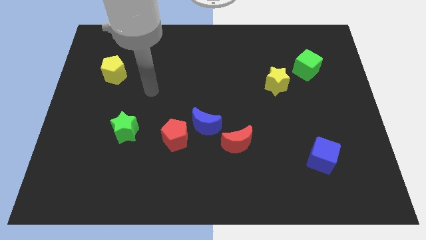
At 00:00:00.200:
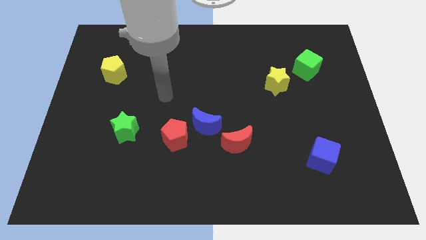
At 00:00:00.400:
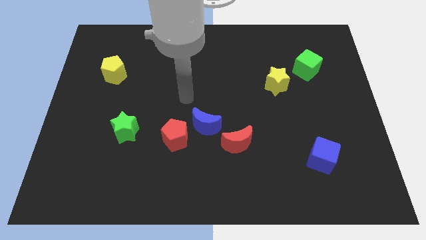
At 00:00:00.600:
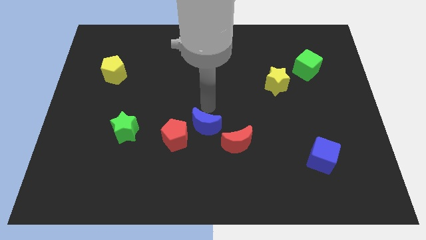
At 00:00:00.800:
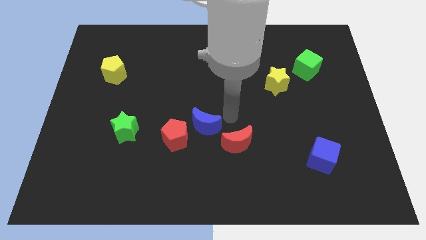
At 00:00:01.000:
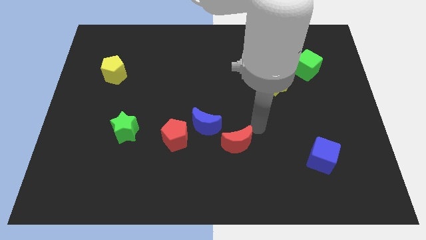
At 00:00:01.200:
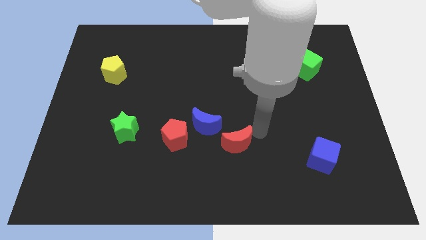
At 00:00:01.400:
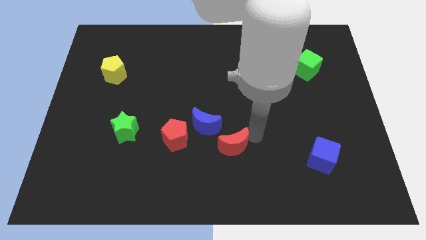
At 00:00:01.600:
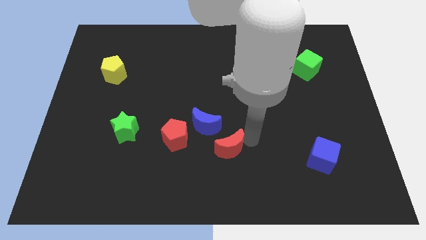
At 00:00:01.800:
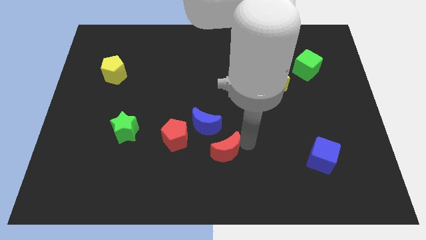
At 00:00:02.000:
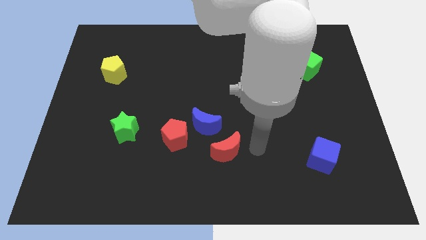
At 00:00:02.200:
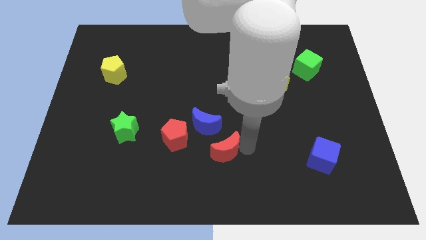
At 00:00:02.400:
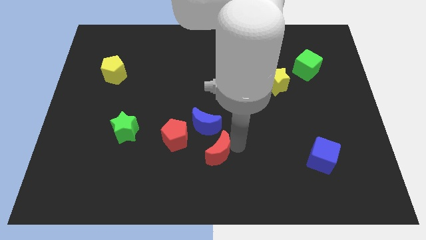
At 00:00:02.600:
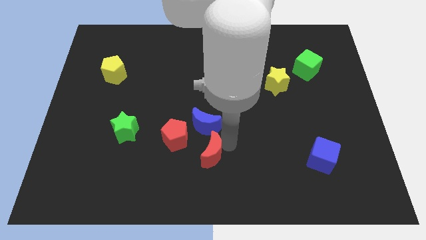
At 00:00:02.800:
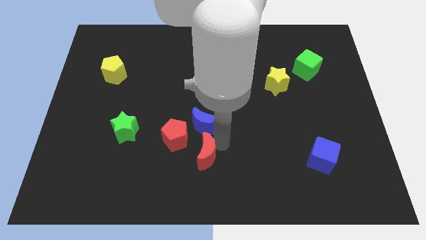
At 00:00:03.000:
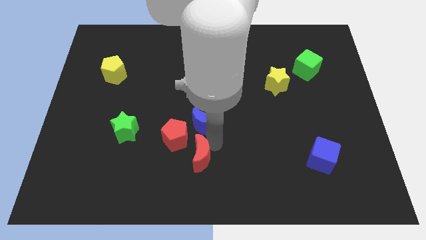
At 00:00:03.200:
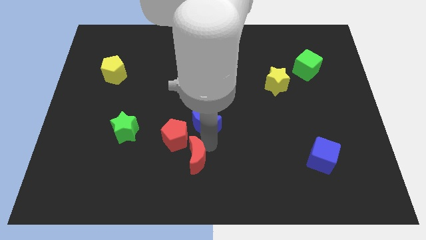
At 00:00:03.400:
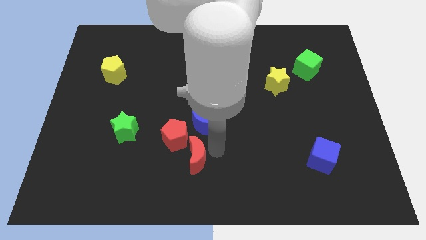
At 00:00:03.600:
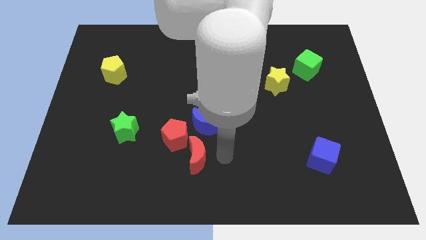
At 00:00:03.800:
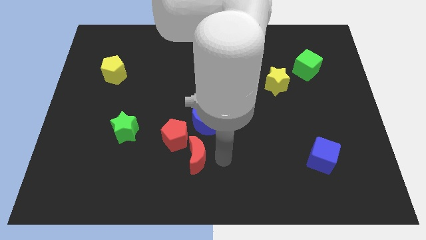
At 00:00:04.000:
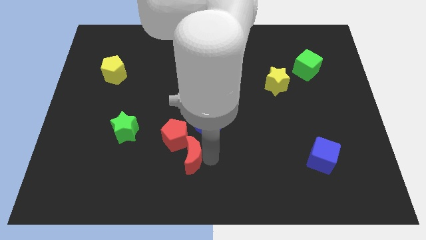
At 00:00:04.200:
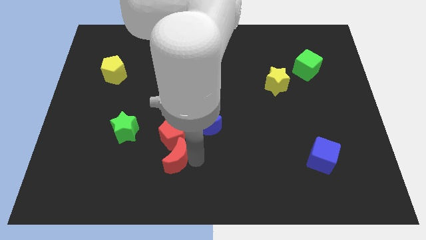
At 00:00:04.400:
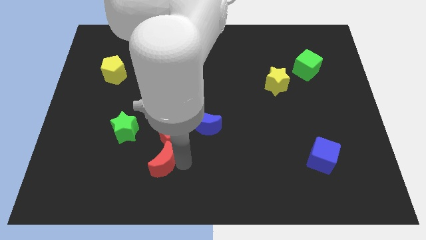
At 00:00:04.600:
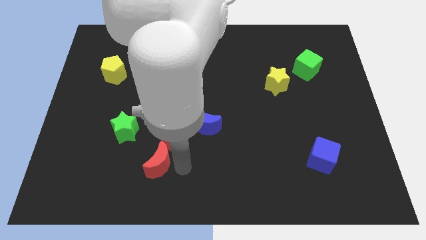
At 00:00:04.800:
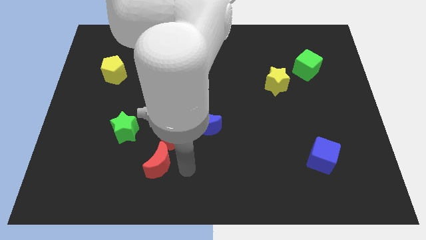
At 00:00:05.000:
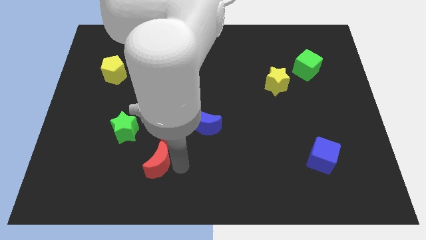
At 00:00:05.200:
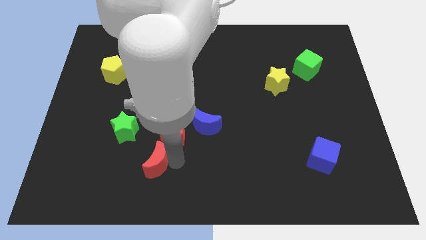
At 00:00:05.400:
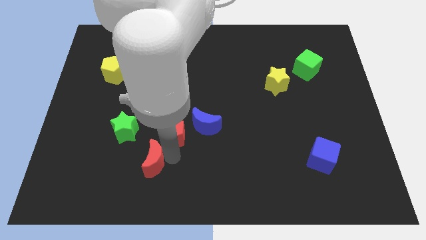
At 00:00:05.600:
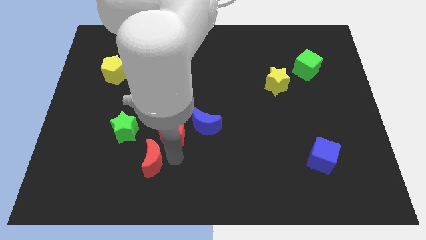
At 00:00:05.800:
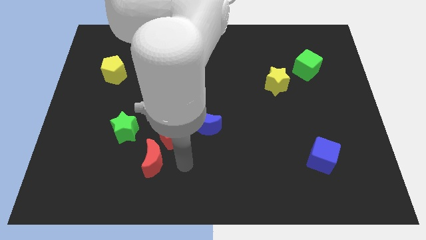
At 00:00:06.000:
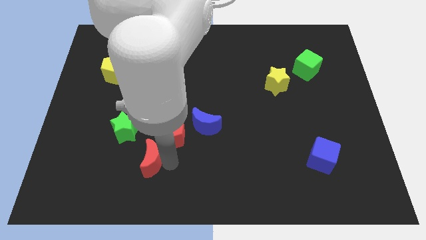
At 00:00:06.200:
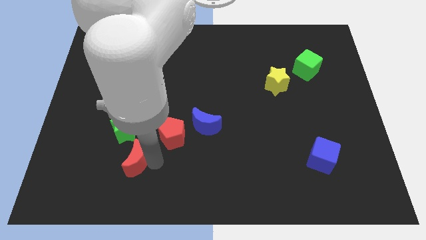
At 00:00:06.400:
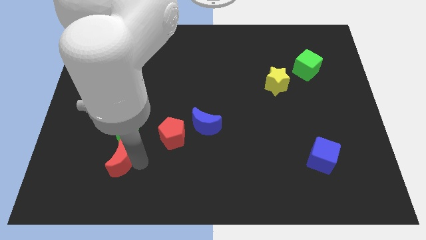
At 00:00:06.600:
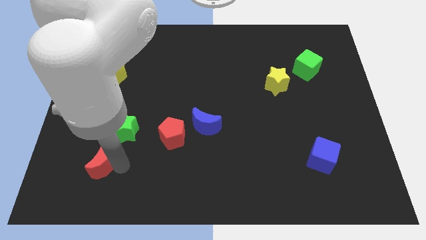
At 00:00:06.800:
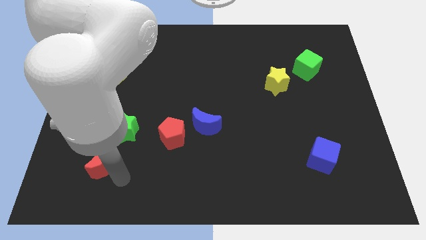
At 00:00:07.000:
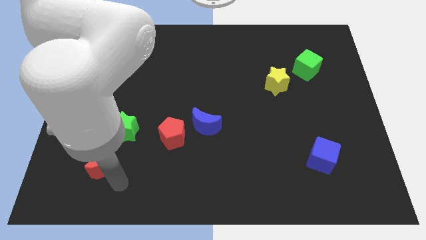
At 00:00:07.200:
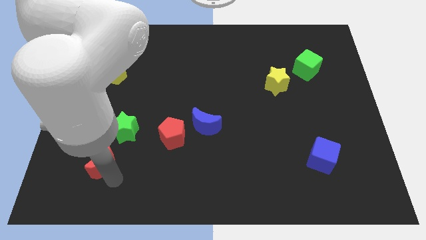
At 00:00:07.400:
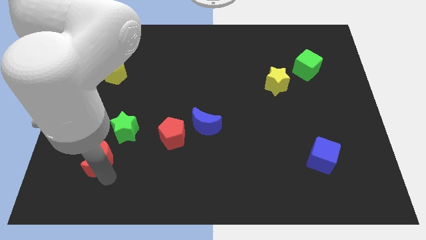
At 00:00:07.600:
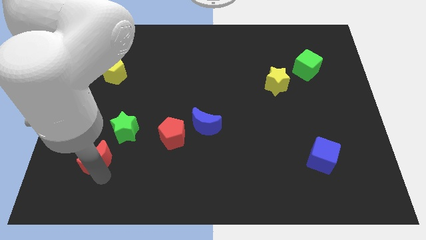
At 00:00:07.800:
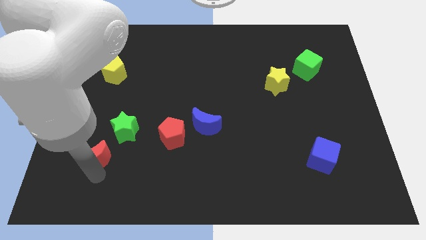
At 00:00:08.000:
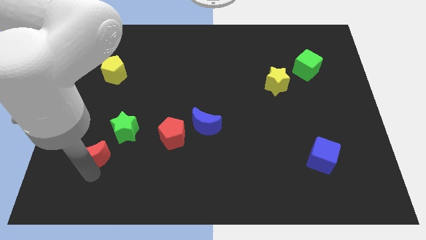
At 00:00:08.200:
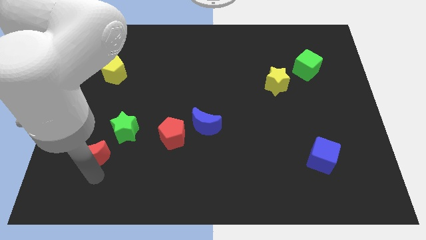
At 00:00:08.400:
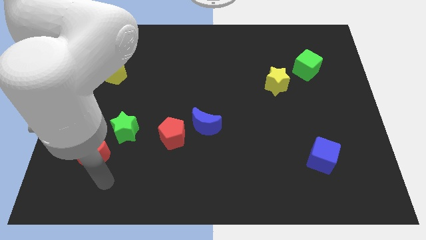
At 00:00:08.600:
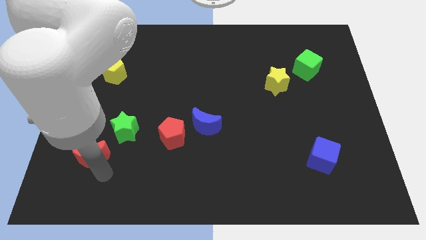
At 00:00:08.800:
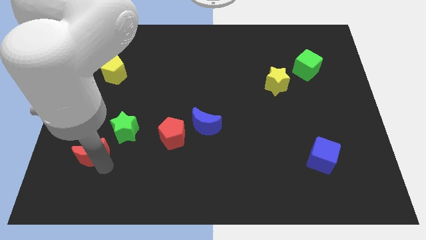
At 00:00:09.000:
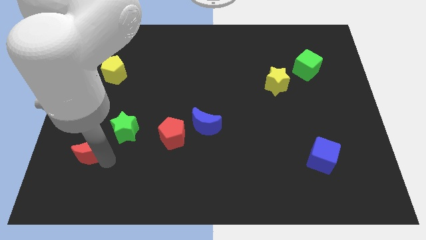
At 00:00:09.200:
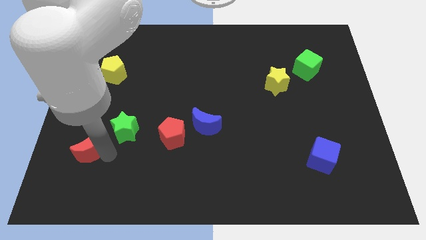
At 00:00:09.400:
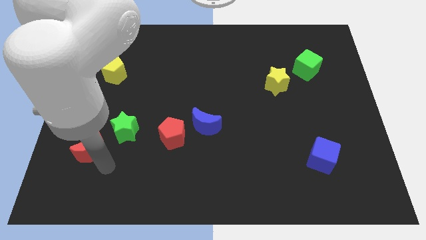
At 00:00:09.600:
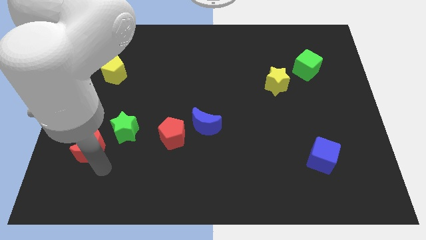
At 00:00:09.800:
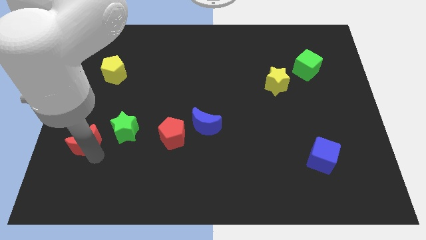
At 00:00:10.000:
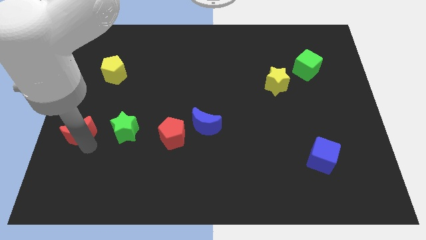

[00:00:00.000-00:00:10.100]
put the red moon to the center left

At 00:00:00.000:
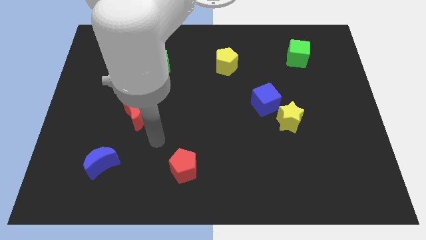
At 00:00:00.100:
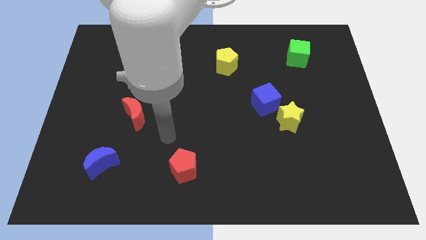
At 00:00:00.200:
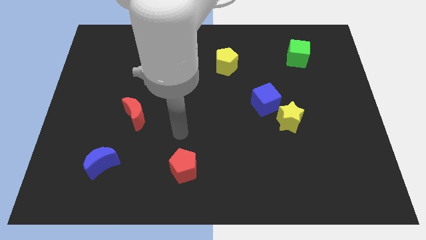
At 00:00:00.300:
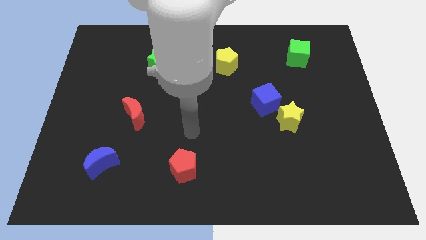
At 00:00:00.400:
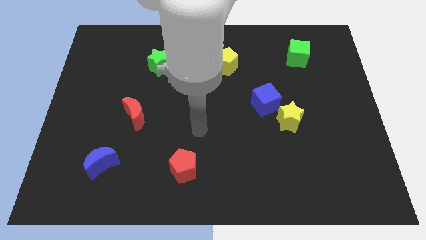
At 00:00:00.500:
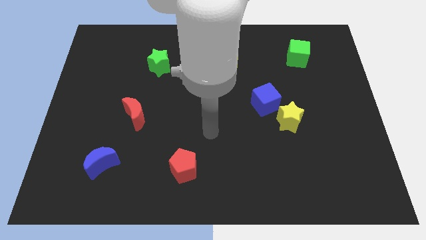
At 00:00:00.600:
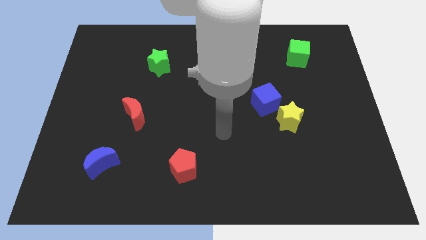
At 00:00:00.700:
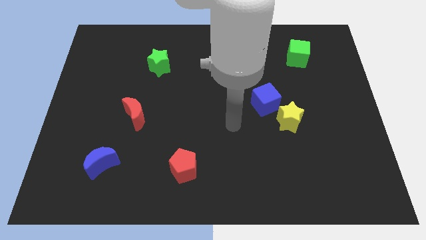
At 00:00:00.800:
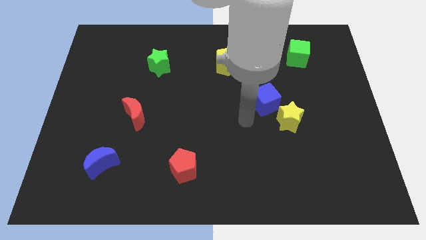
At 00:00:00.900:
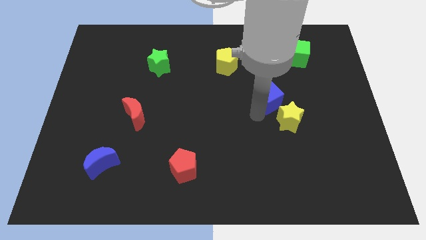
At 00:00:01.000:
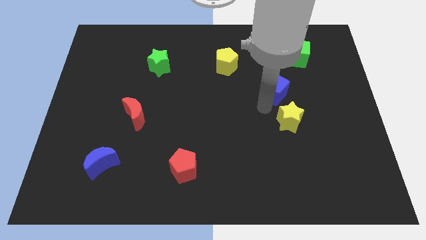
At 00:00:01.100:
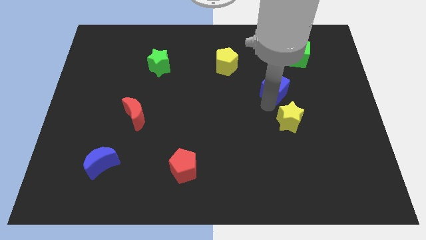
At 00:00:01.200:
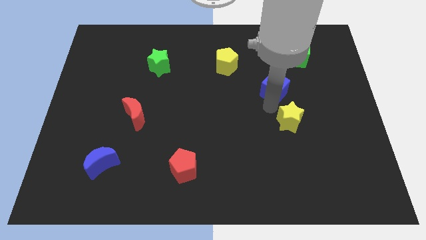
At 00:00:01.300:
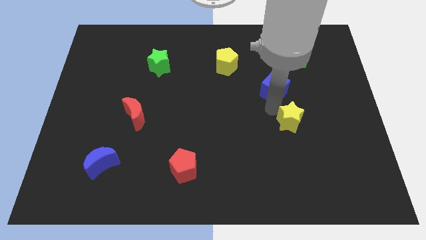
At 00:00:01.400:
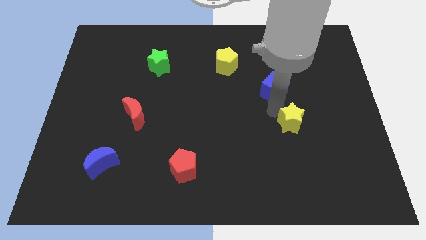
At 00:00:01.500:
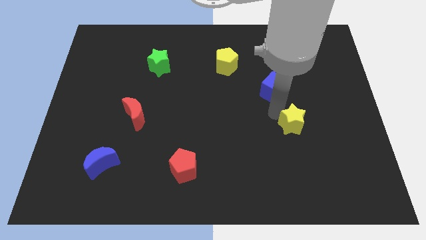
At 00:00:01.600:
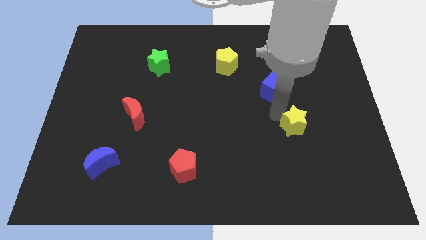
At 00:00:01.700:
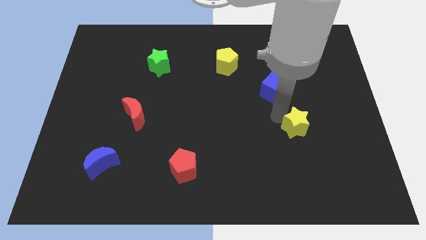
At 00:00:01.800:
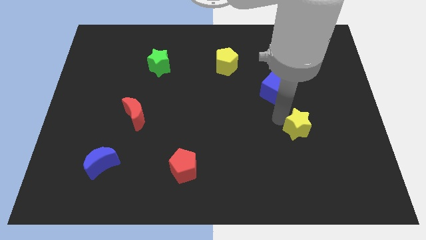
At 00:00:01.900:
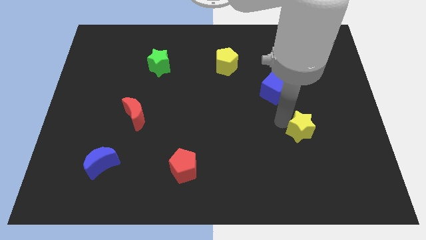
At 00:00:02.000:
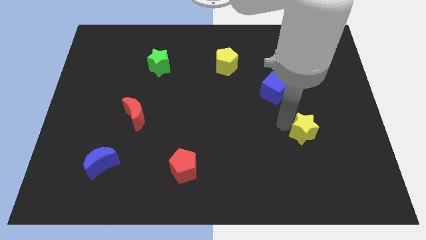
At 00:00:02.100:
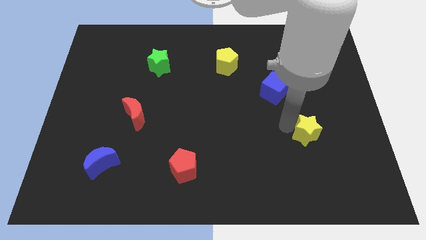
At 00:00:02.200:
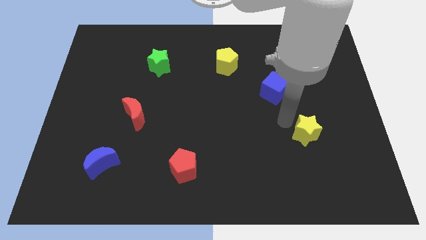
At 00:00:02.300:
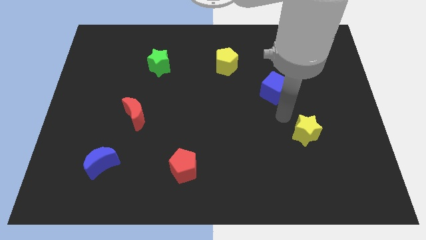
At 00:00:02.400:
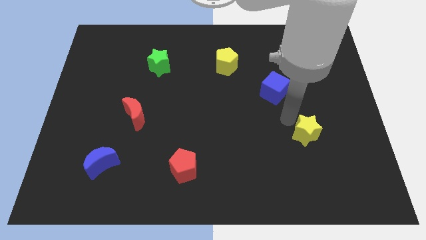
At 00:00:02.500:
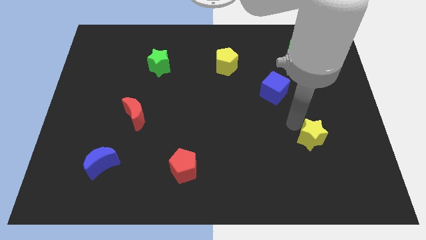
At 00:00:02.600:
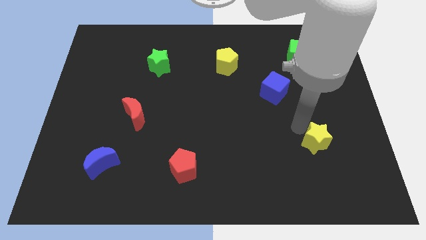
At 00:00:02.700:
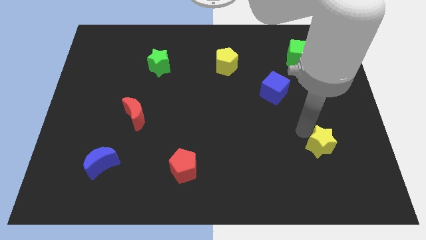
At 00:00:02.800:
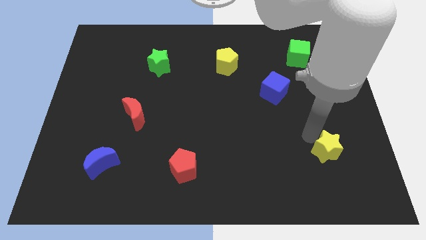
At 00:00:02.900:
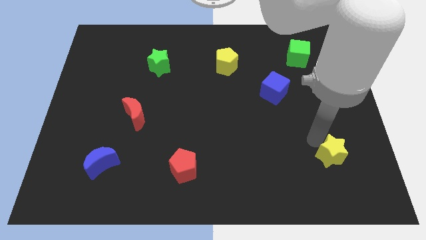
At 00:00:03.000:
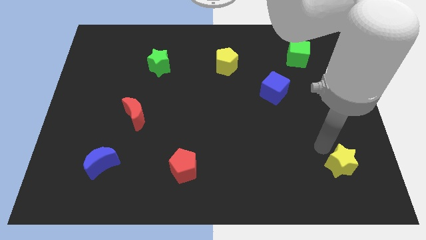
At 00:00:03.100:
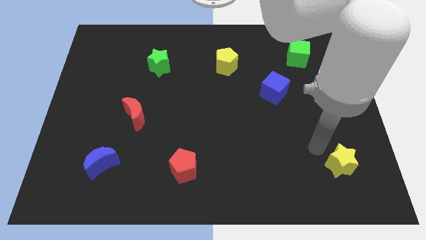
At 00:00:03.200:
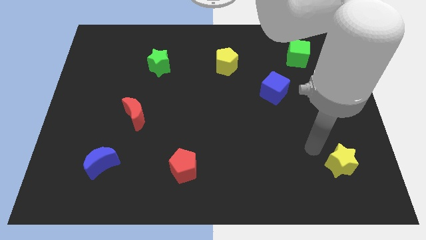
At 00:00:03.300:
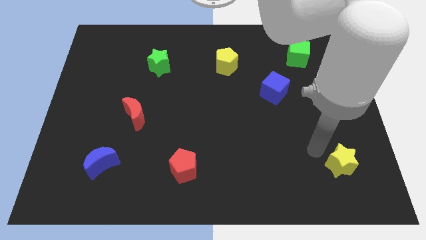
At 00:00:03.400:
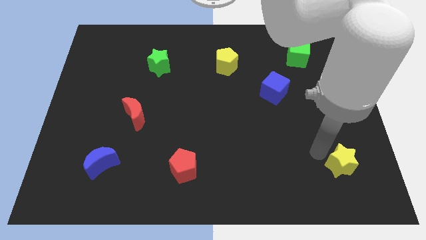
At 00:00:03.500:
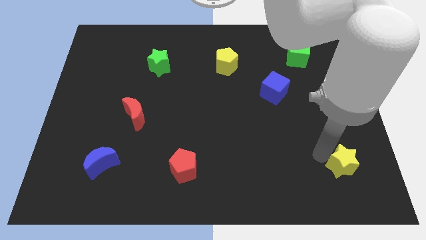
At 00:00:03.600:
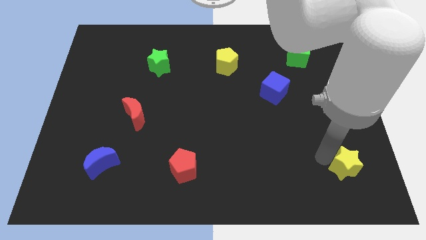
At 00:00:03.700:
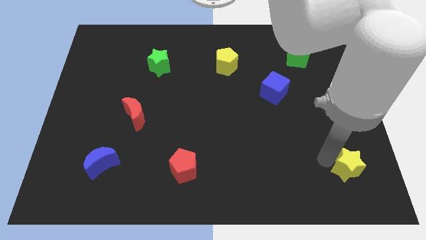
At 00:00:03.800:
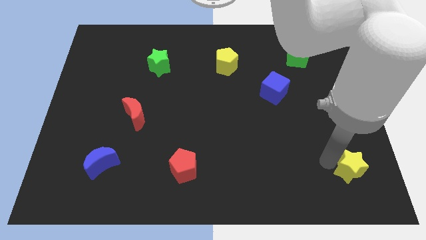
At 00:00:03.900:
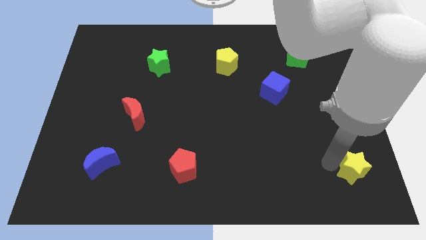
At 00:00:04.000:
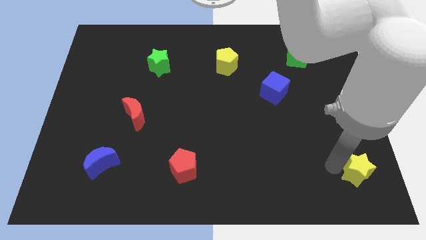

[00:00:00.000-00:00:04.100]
push the yellow star to the bottom right corner
